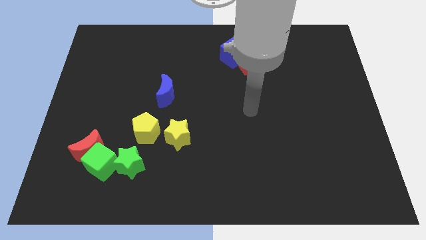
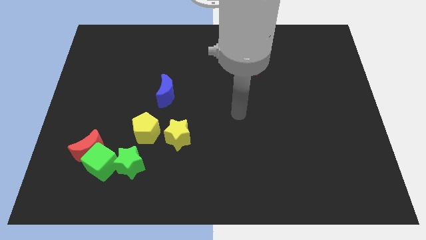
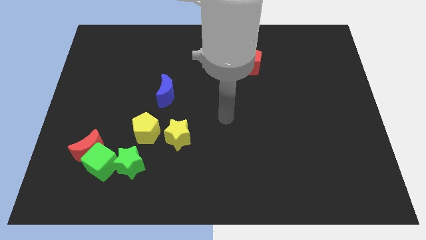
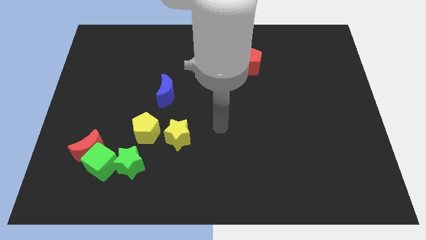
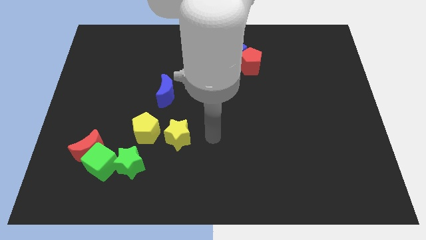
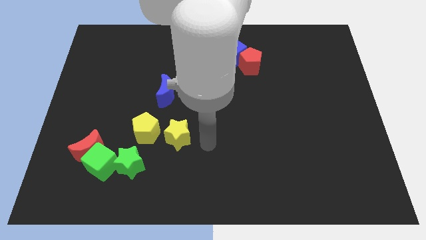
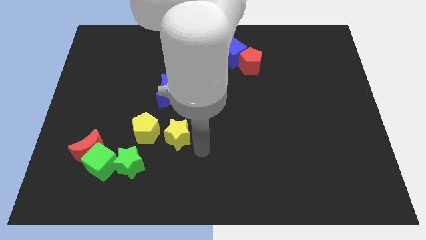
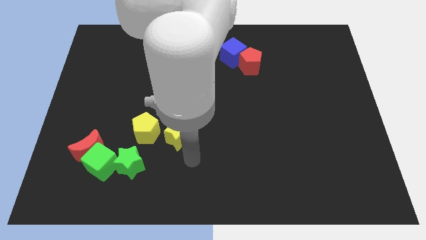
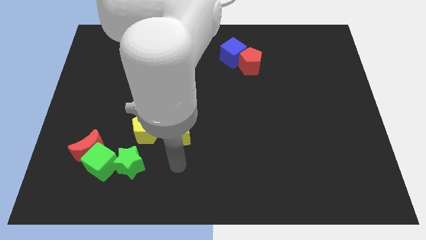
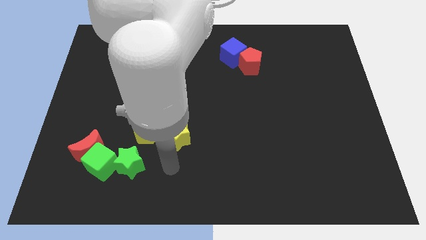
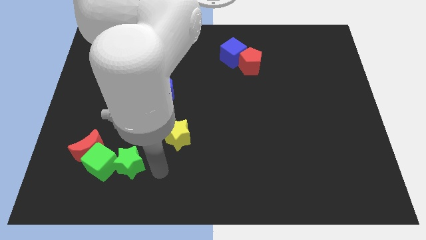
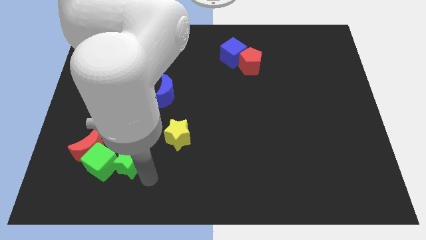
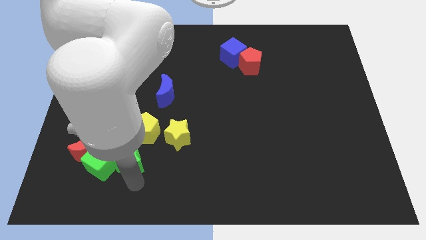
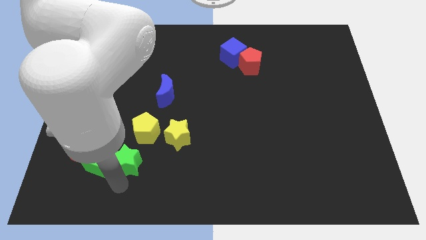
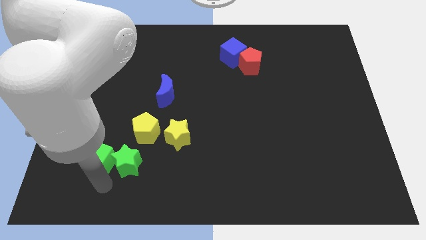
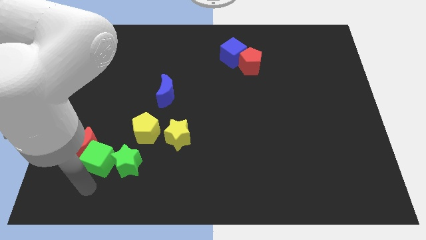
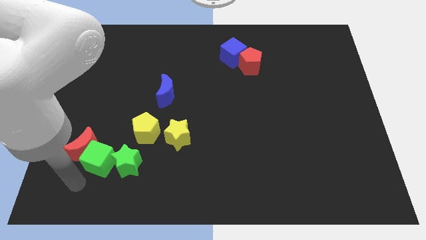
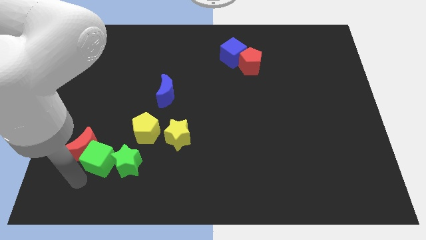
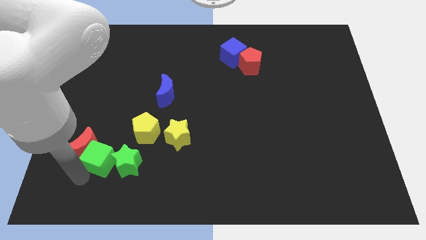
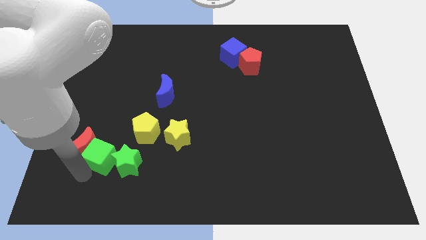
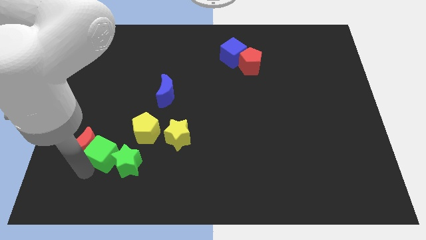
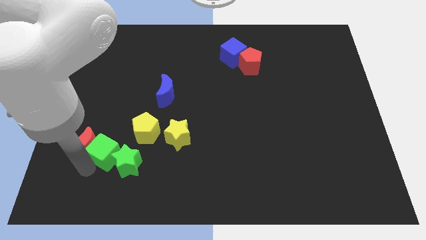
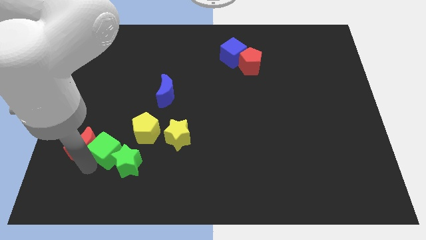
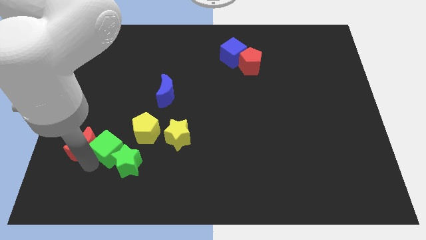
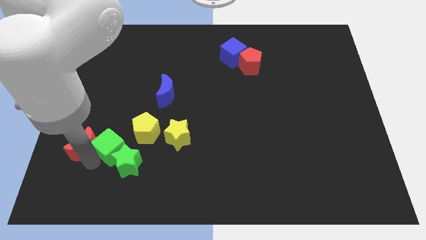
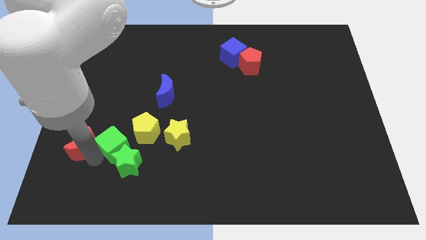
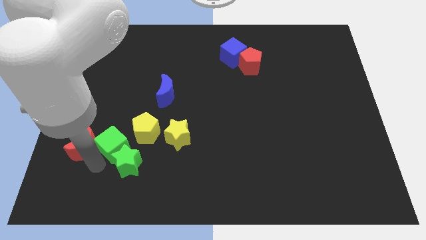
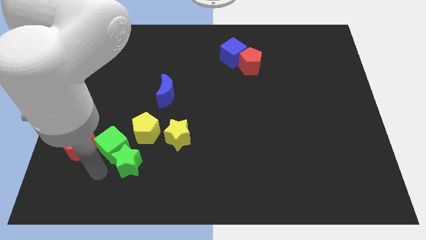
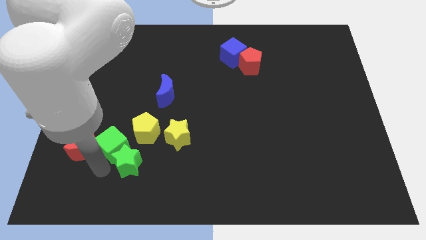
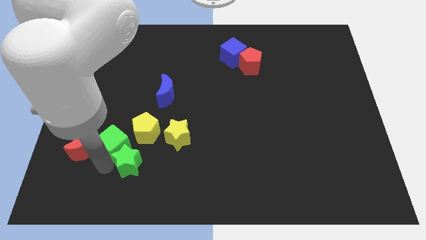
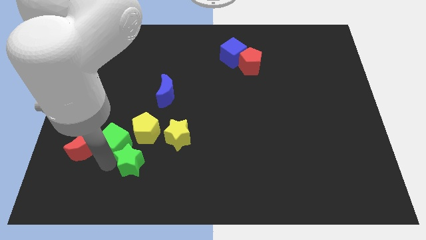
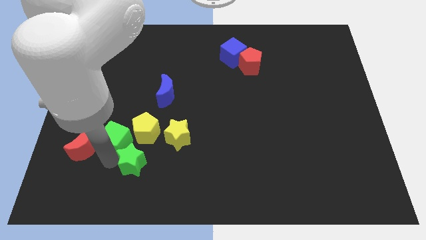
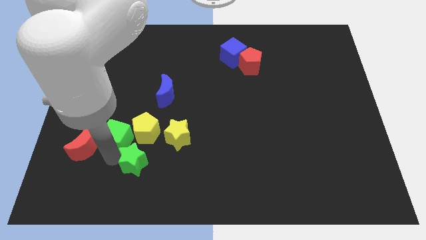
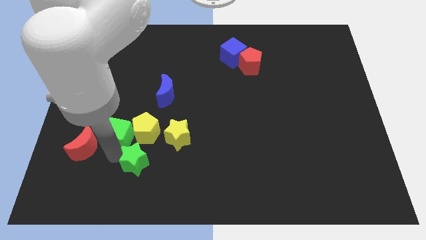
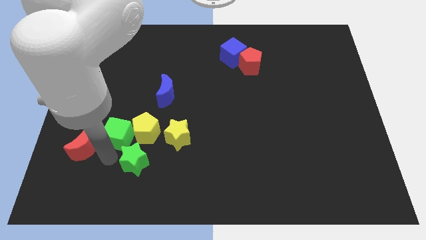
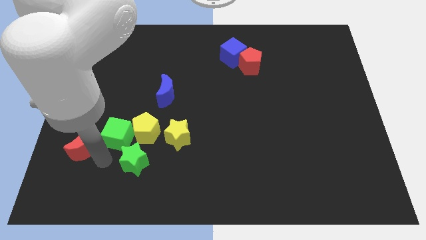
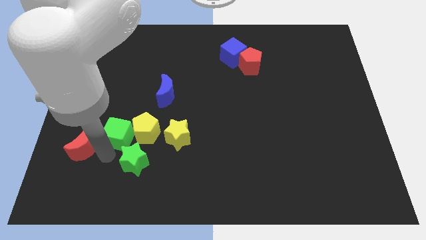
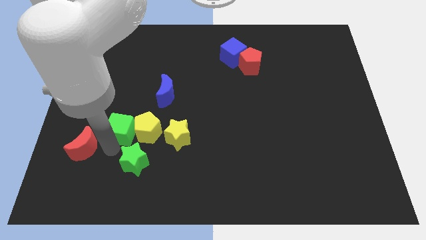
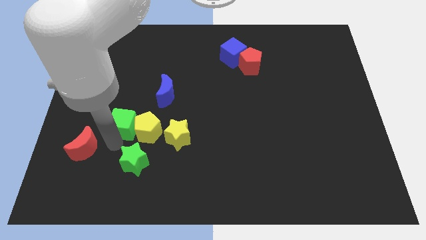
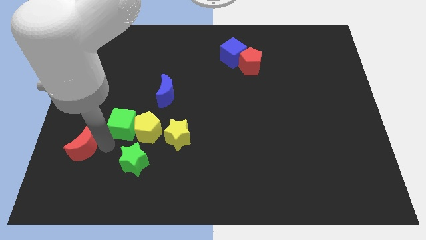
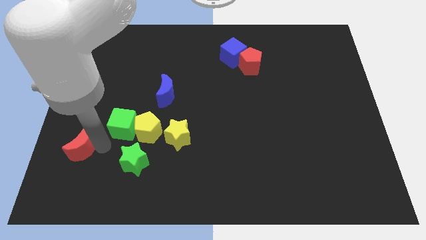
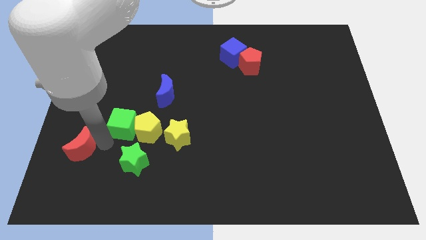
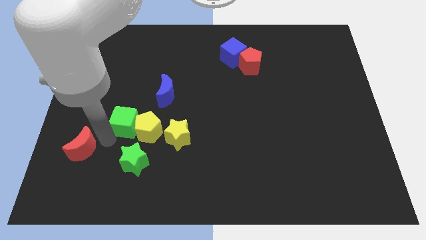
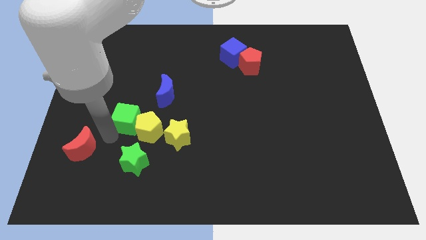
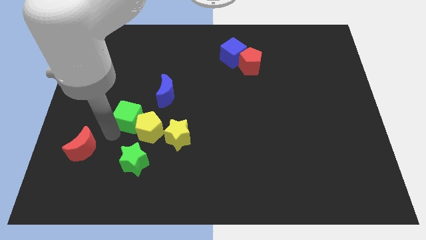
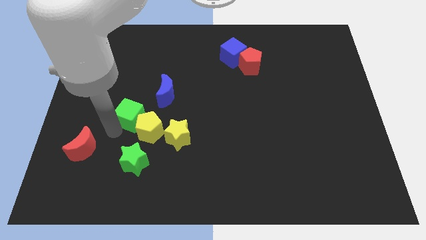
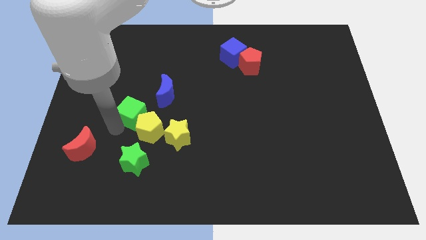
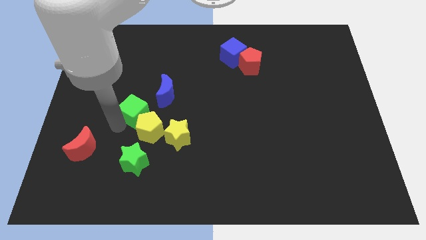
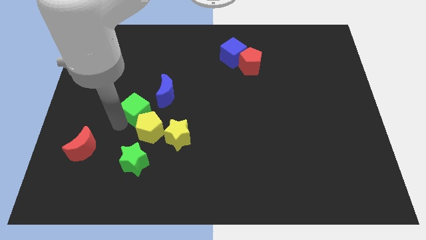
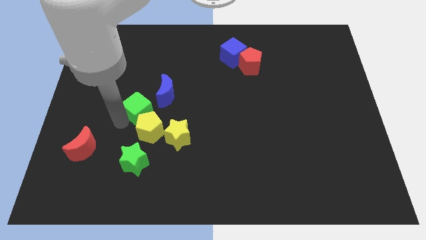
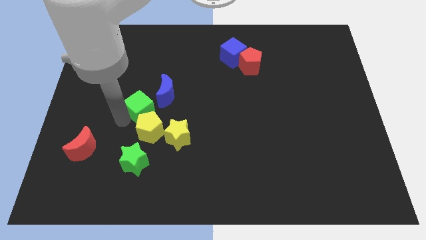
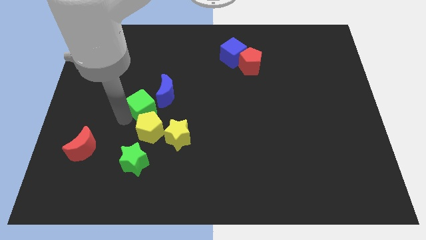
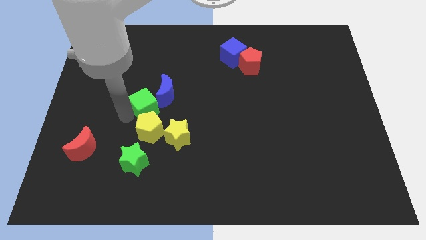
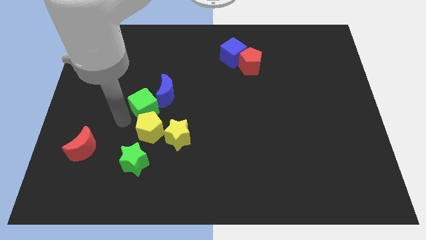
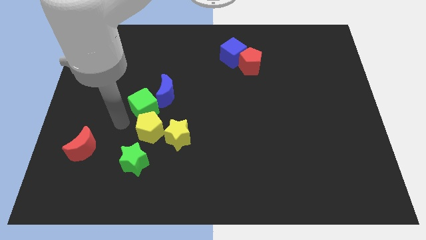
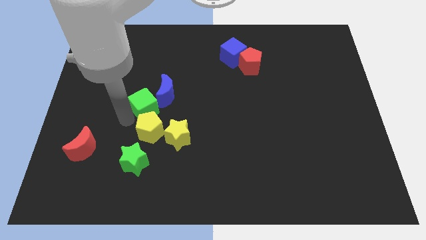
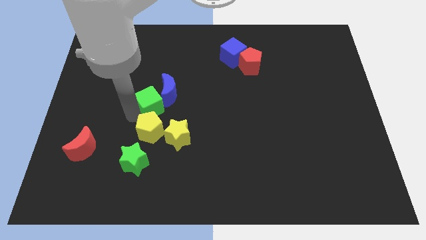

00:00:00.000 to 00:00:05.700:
move the green cube next to the blue moon

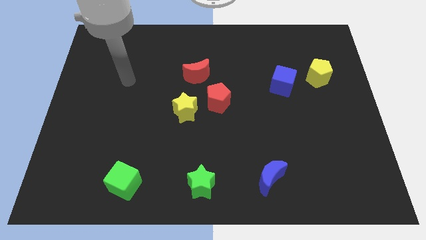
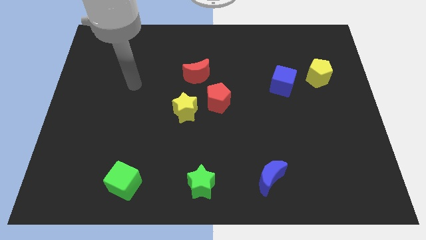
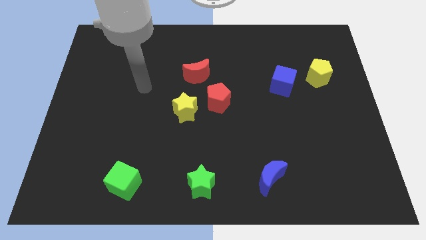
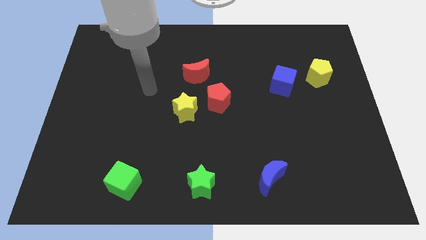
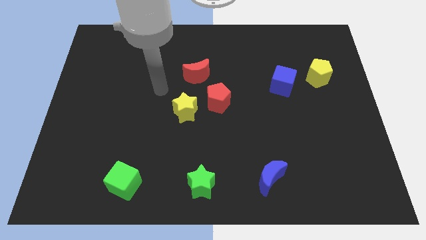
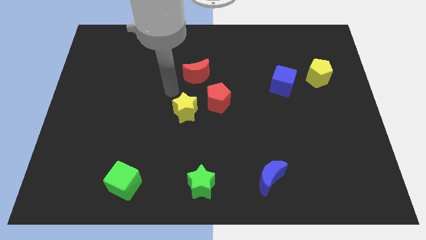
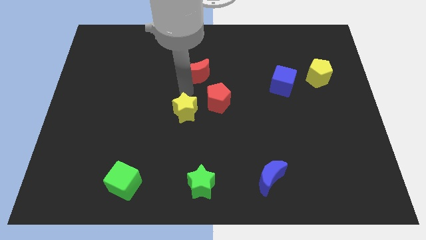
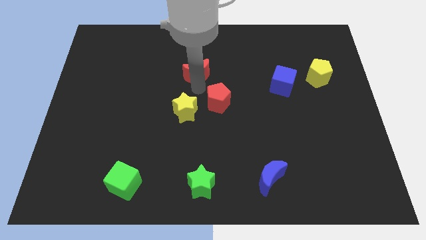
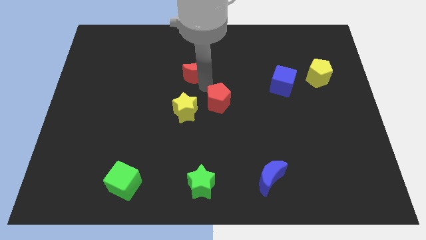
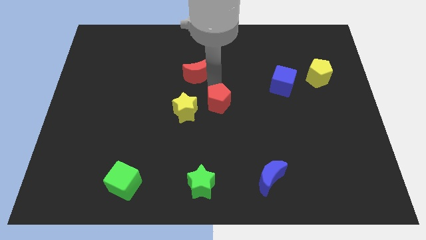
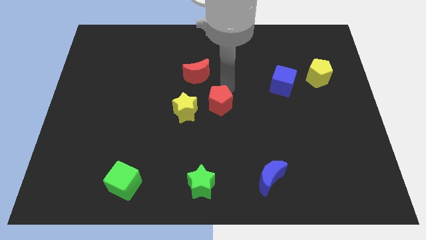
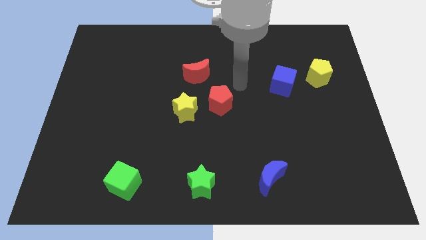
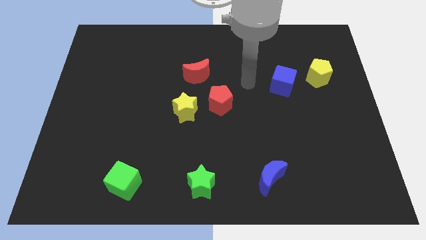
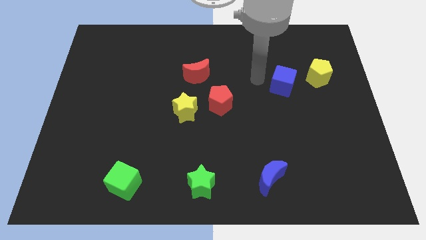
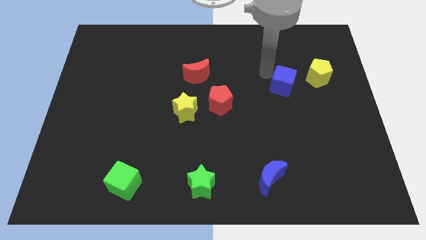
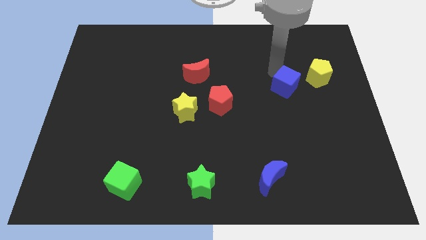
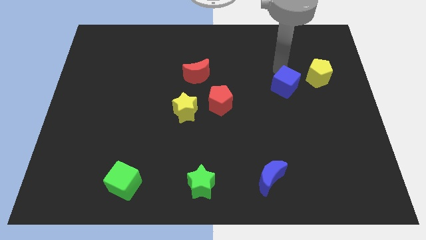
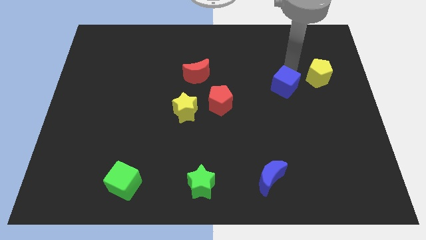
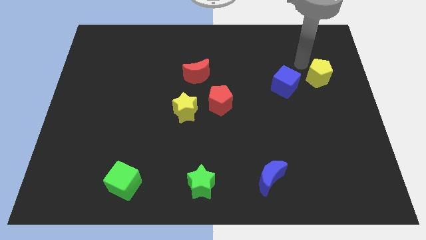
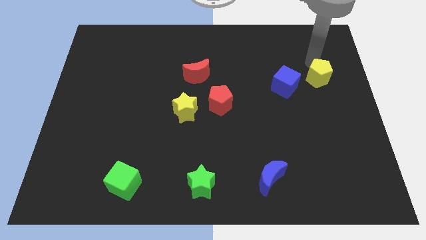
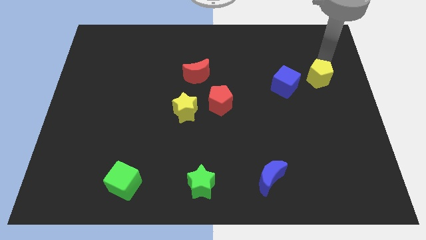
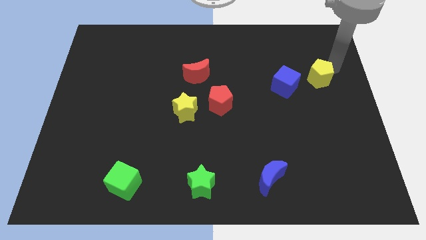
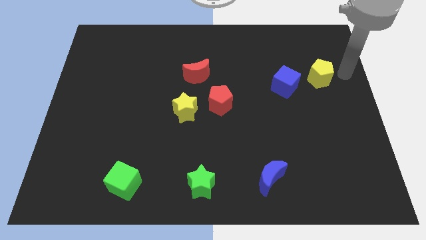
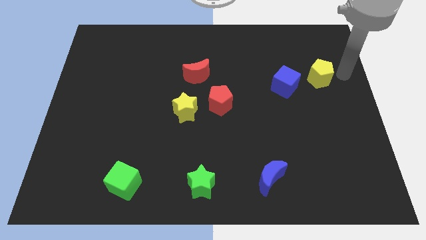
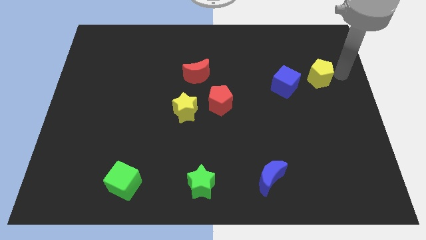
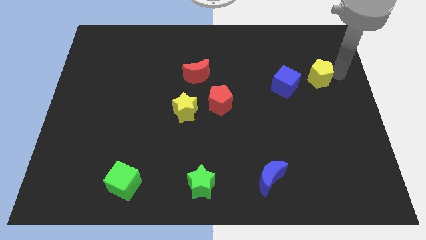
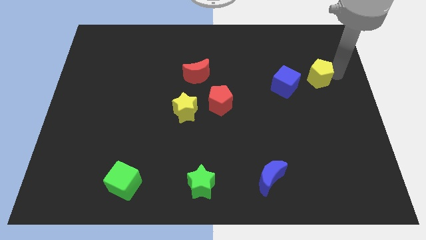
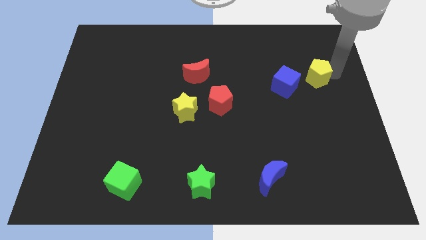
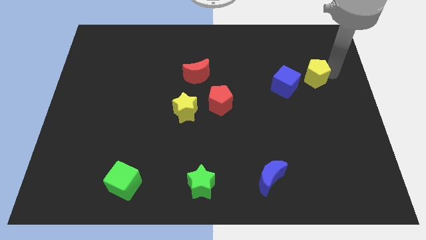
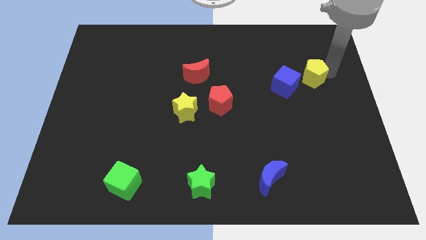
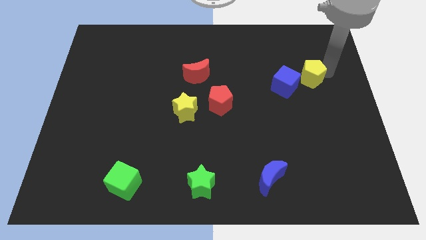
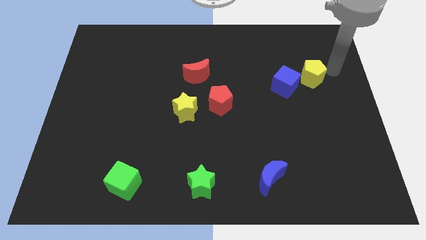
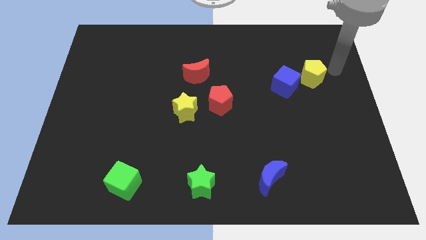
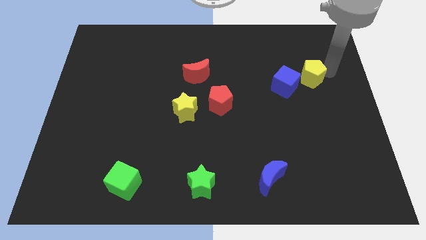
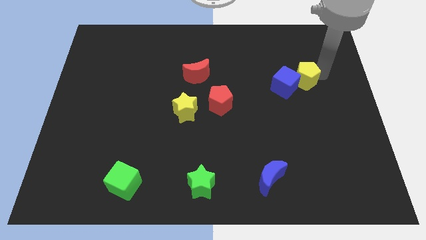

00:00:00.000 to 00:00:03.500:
push the yellow pentagon to the blue cube
